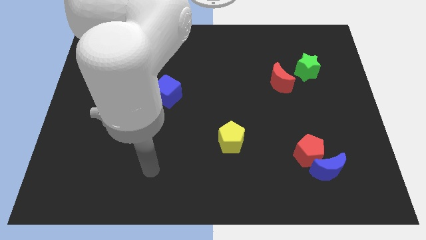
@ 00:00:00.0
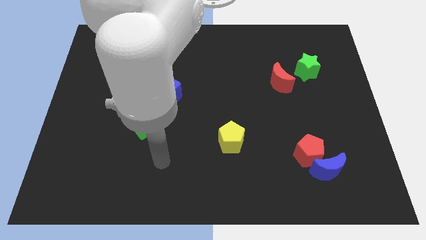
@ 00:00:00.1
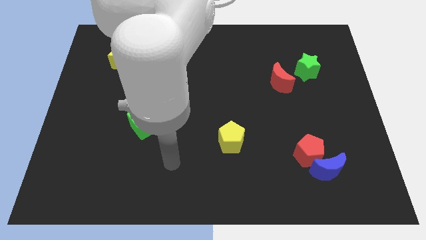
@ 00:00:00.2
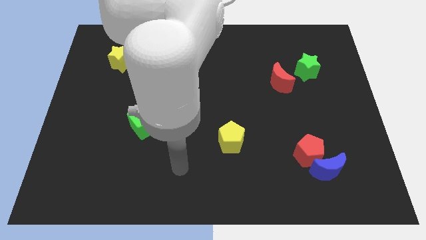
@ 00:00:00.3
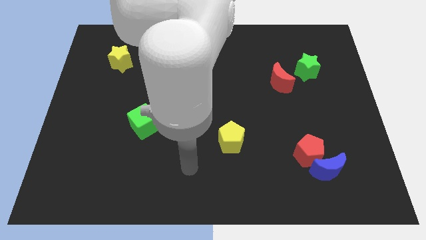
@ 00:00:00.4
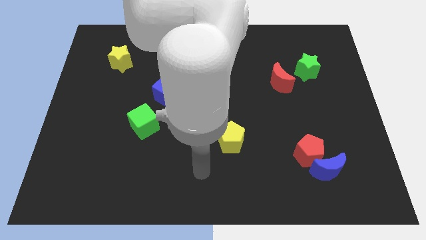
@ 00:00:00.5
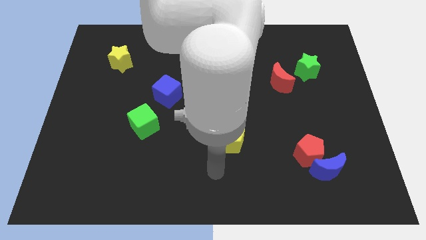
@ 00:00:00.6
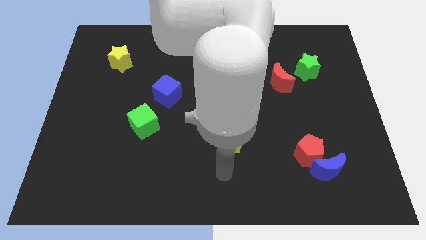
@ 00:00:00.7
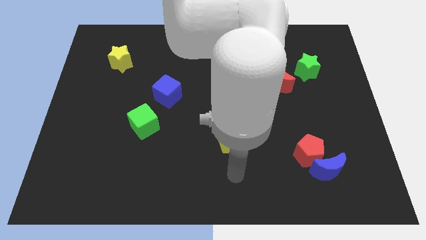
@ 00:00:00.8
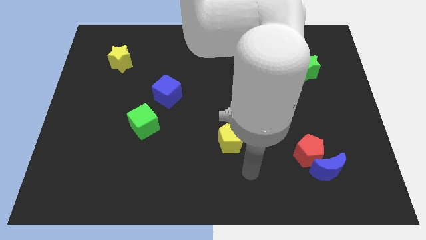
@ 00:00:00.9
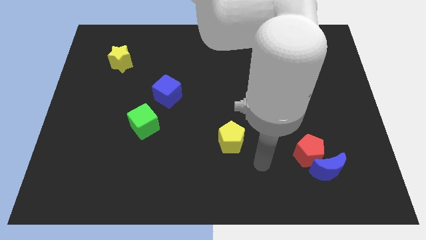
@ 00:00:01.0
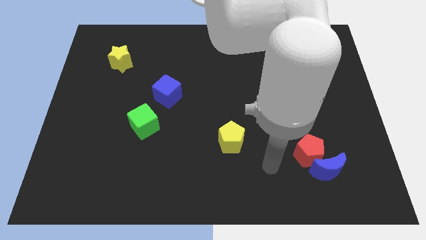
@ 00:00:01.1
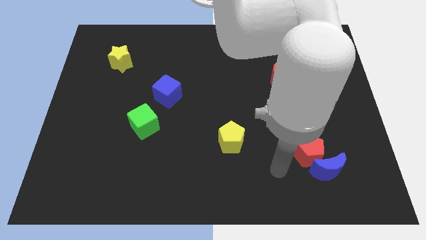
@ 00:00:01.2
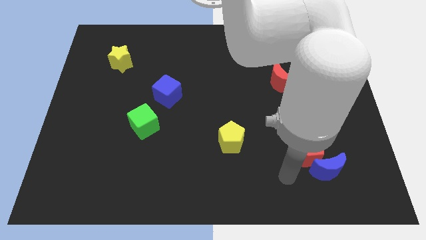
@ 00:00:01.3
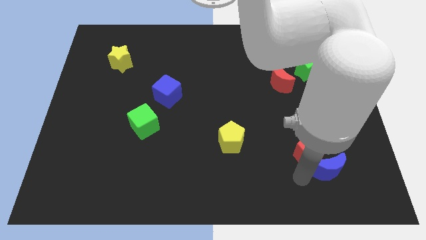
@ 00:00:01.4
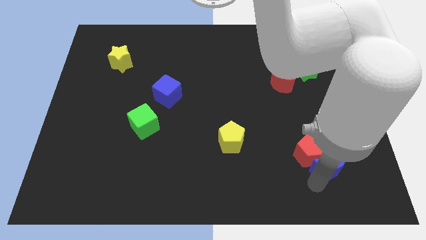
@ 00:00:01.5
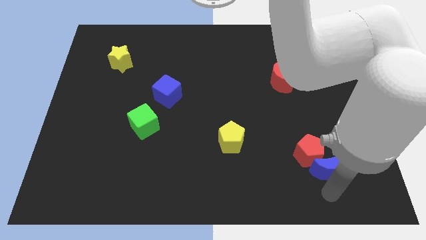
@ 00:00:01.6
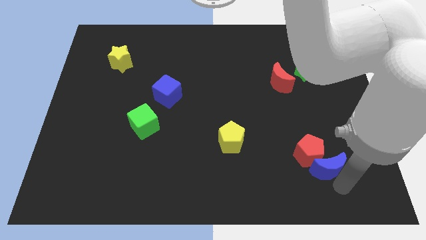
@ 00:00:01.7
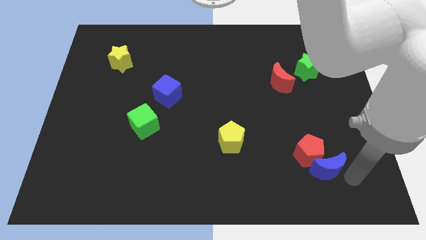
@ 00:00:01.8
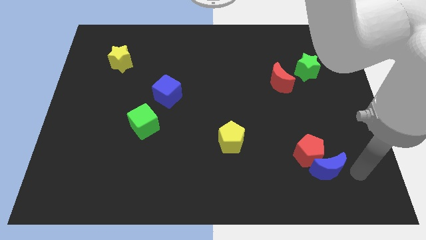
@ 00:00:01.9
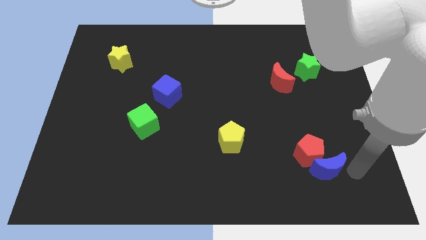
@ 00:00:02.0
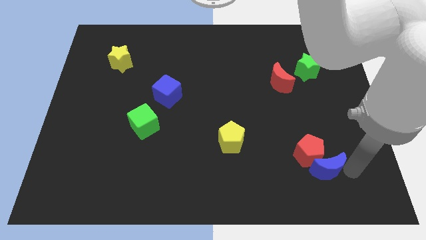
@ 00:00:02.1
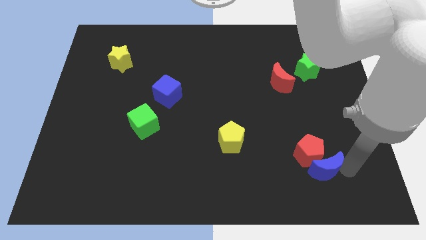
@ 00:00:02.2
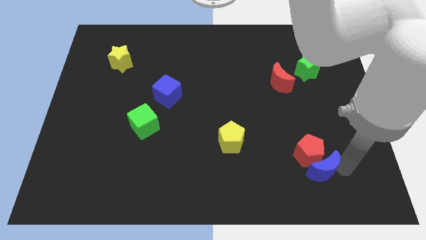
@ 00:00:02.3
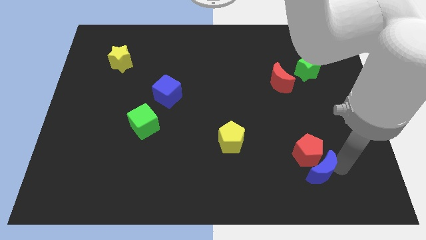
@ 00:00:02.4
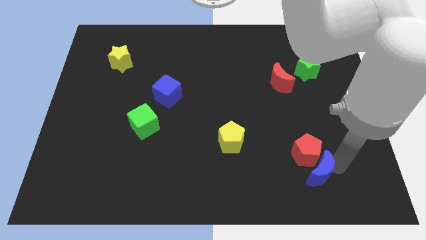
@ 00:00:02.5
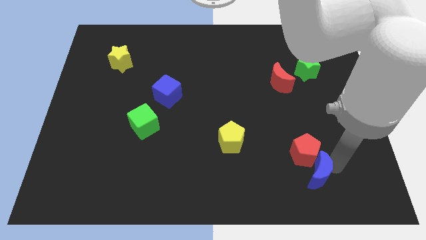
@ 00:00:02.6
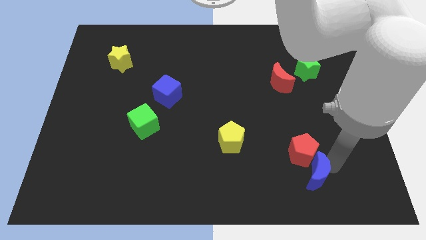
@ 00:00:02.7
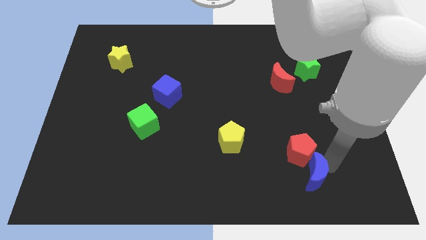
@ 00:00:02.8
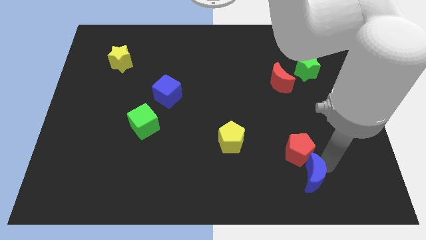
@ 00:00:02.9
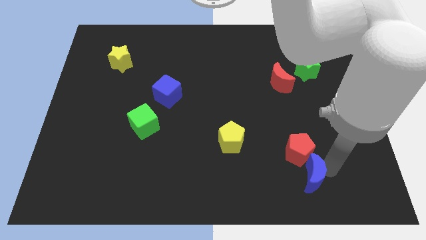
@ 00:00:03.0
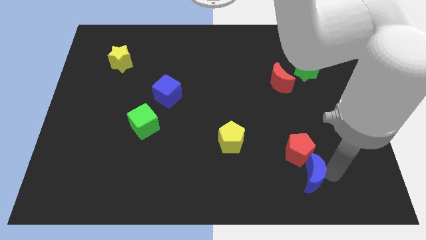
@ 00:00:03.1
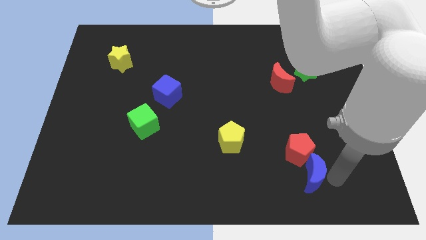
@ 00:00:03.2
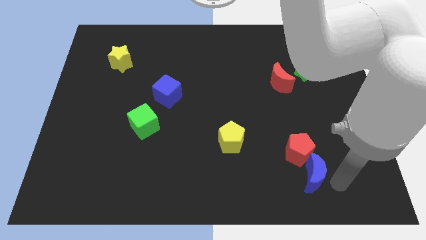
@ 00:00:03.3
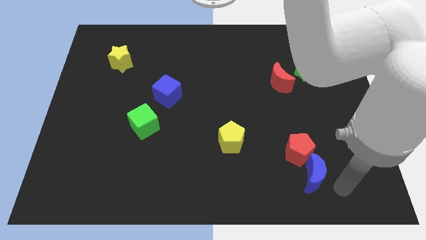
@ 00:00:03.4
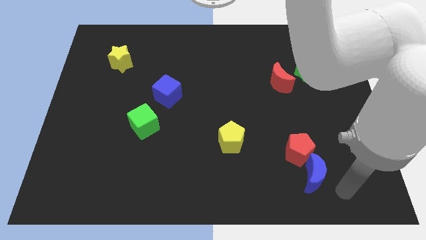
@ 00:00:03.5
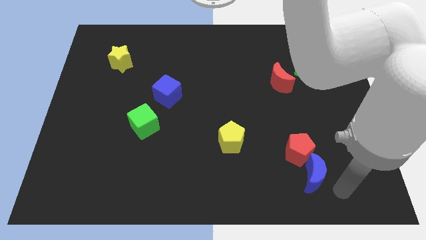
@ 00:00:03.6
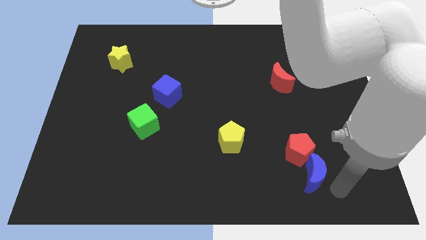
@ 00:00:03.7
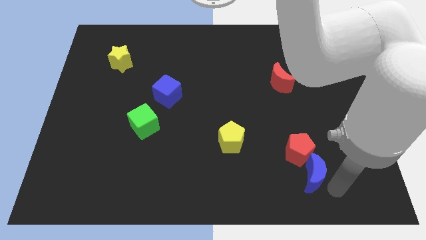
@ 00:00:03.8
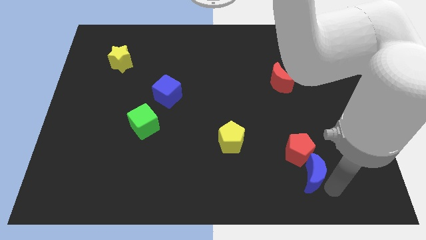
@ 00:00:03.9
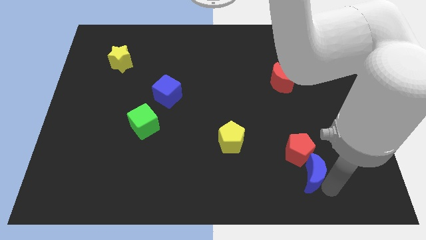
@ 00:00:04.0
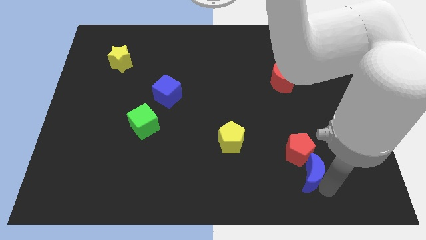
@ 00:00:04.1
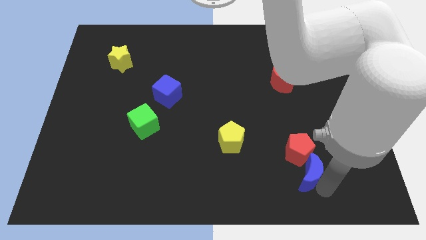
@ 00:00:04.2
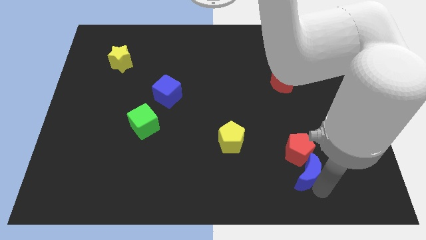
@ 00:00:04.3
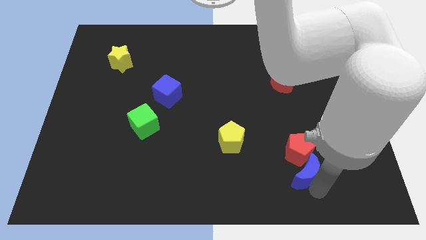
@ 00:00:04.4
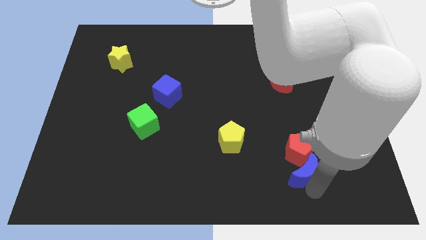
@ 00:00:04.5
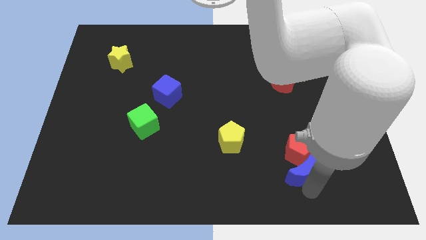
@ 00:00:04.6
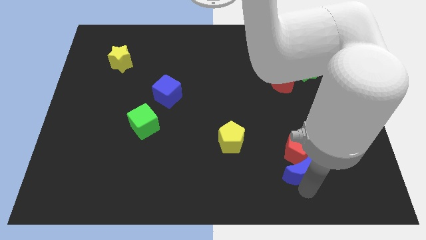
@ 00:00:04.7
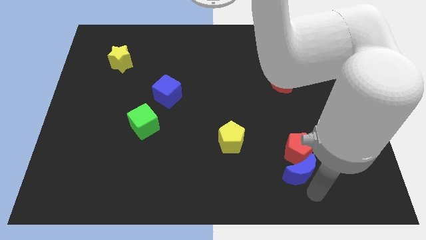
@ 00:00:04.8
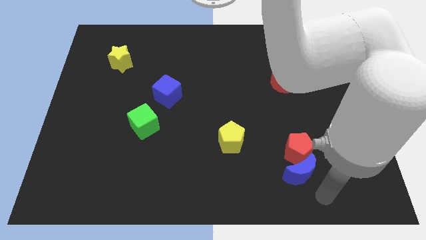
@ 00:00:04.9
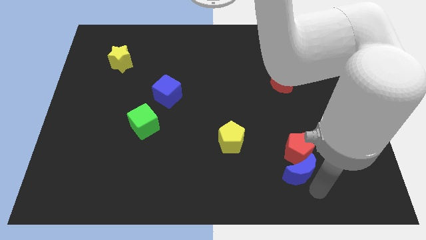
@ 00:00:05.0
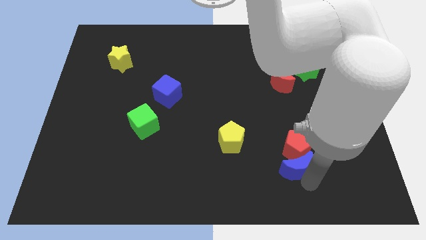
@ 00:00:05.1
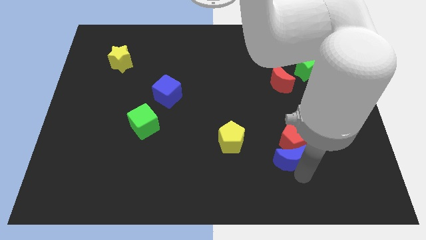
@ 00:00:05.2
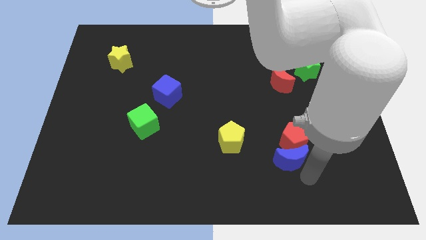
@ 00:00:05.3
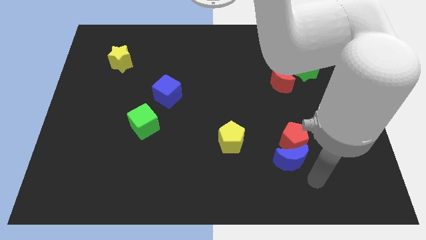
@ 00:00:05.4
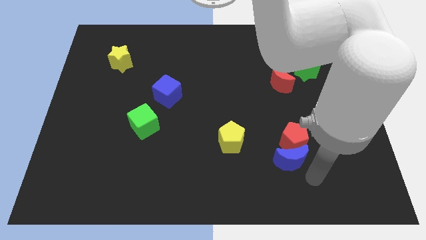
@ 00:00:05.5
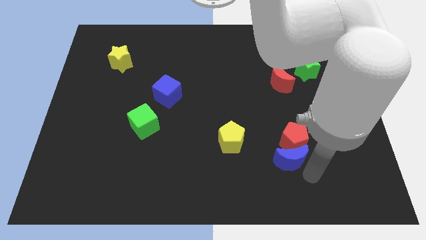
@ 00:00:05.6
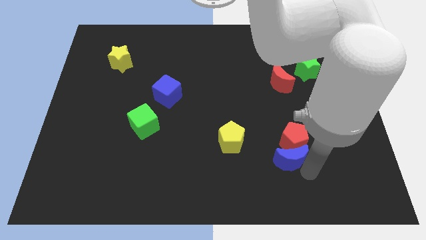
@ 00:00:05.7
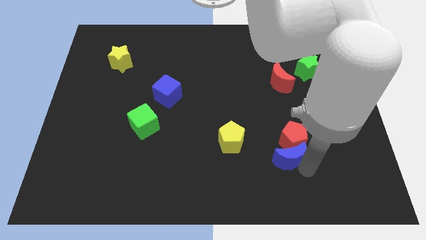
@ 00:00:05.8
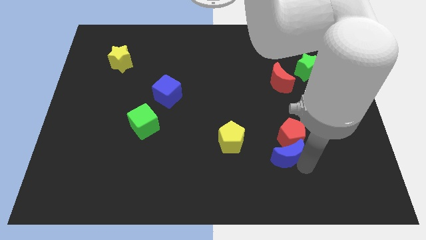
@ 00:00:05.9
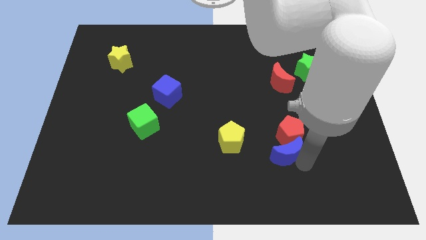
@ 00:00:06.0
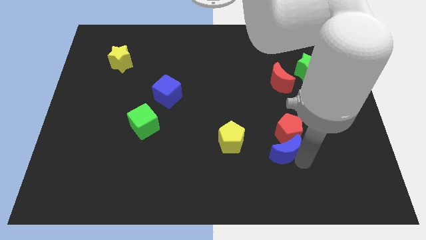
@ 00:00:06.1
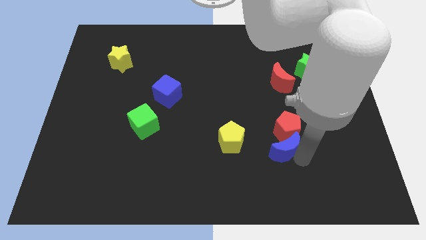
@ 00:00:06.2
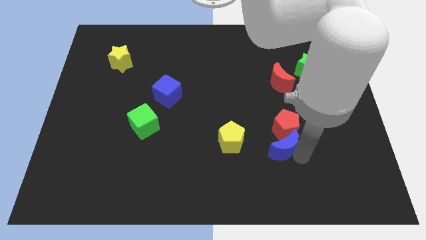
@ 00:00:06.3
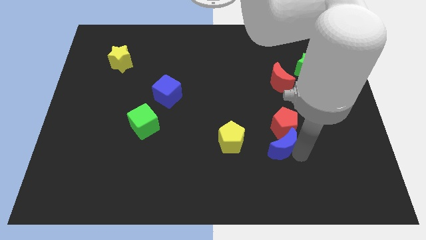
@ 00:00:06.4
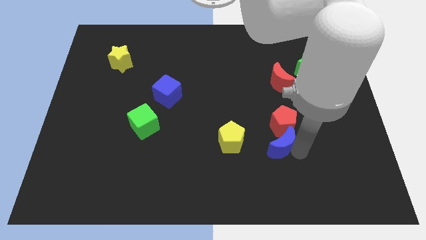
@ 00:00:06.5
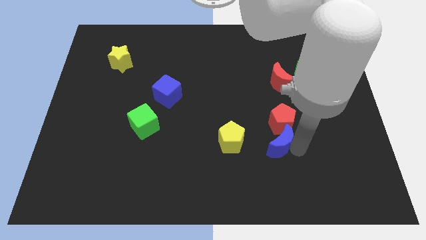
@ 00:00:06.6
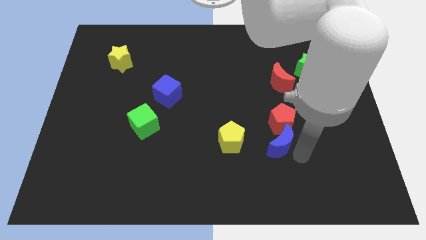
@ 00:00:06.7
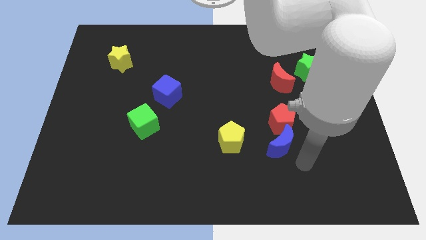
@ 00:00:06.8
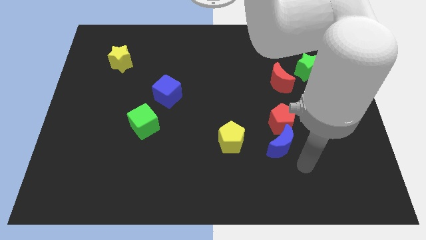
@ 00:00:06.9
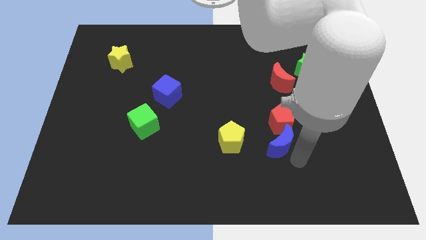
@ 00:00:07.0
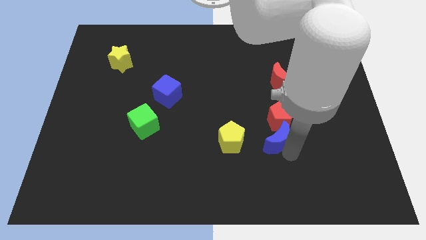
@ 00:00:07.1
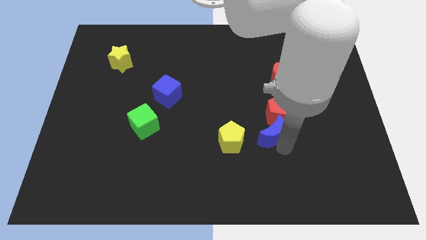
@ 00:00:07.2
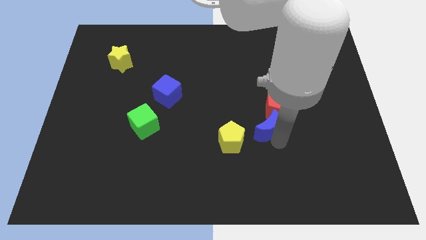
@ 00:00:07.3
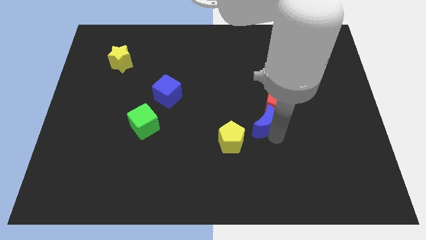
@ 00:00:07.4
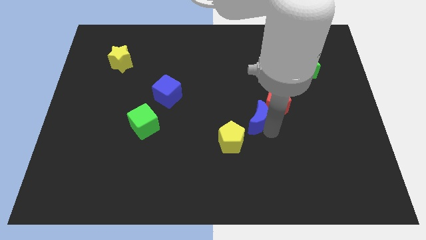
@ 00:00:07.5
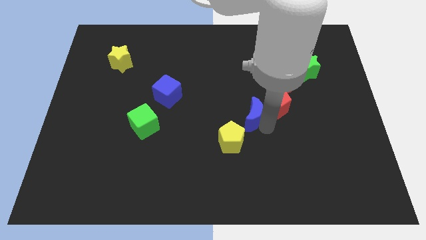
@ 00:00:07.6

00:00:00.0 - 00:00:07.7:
push the blue moon upwards and to the left

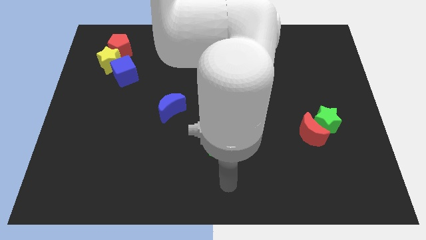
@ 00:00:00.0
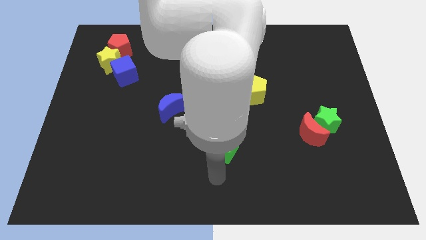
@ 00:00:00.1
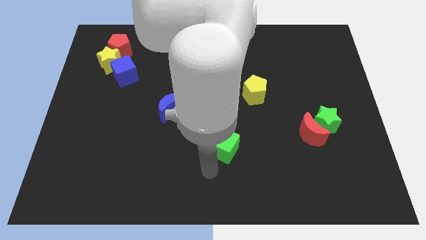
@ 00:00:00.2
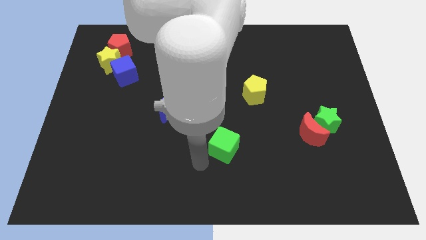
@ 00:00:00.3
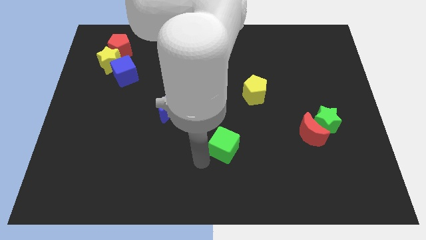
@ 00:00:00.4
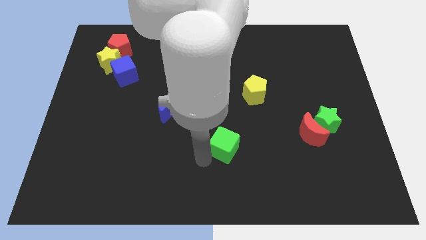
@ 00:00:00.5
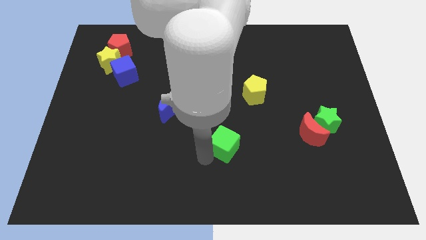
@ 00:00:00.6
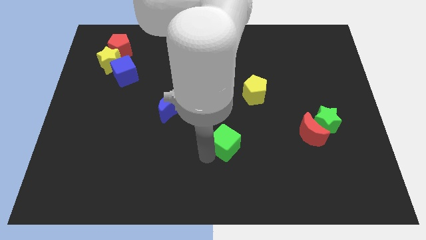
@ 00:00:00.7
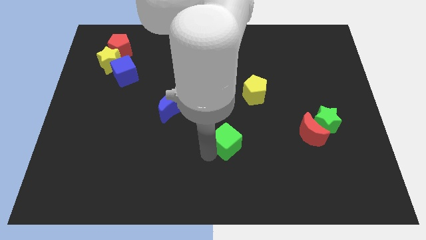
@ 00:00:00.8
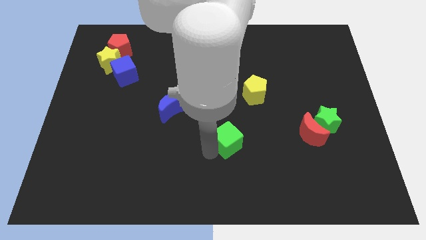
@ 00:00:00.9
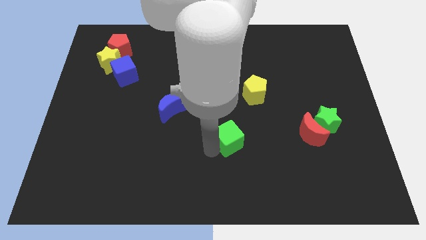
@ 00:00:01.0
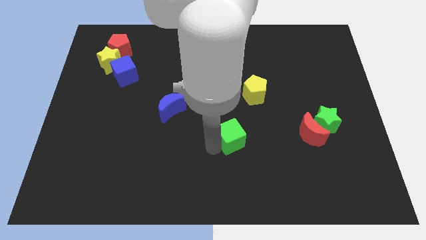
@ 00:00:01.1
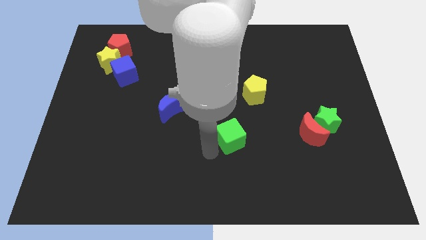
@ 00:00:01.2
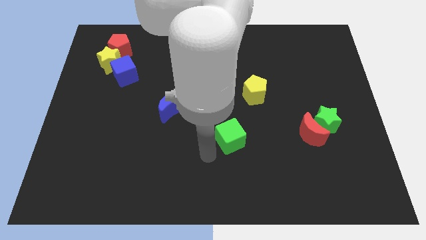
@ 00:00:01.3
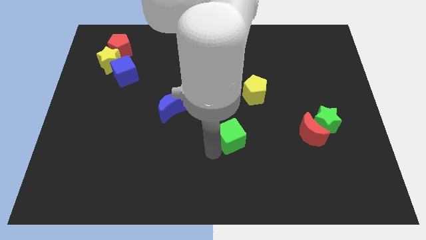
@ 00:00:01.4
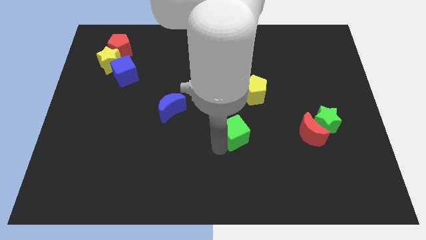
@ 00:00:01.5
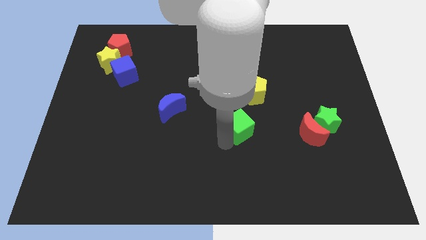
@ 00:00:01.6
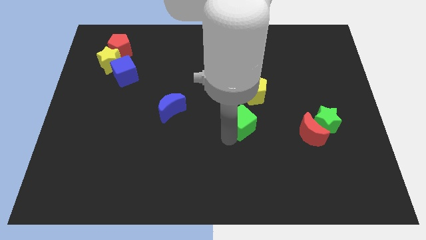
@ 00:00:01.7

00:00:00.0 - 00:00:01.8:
slightly move the green cube up and to the right diagonally
